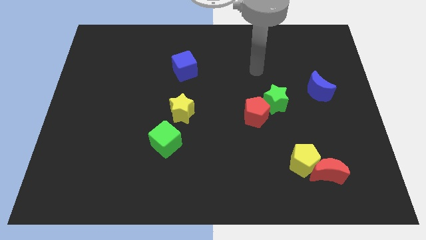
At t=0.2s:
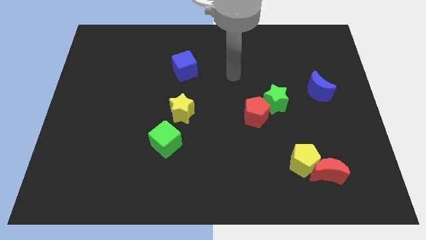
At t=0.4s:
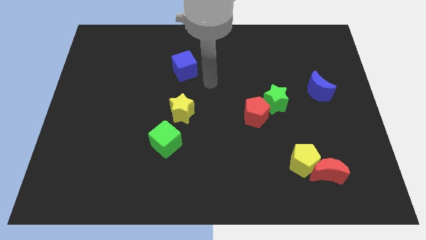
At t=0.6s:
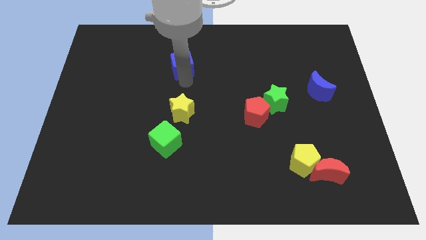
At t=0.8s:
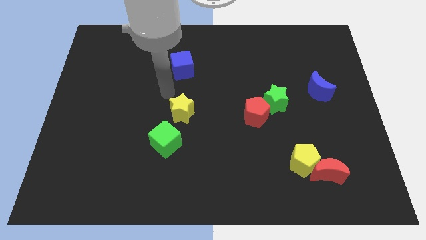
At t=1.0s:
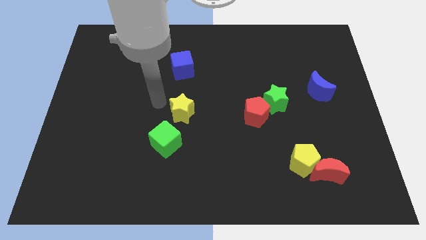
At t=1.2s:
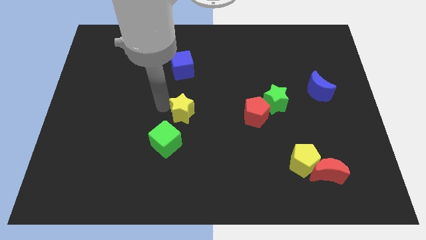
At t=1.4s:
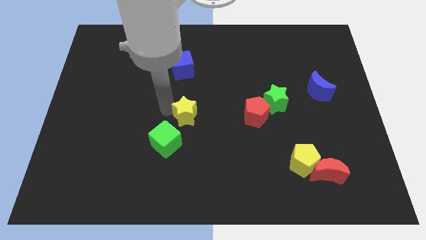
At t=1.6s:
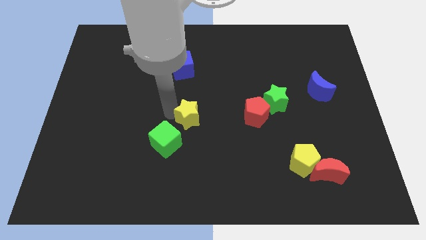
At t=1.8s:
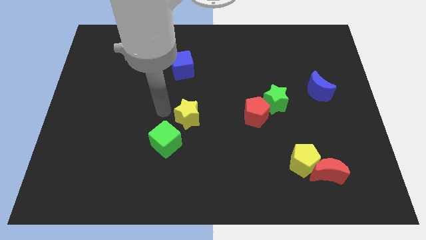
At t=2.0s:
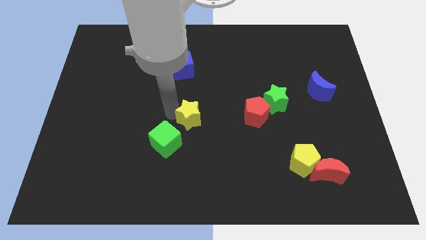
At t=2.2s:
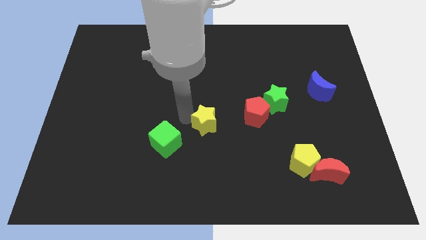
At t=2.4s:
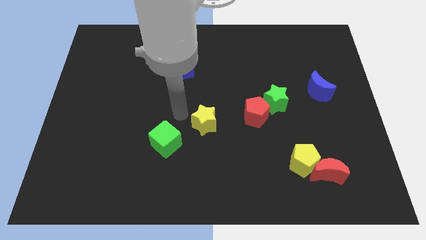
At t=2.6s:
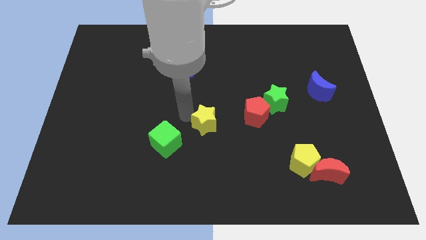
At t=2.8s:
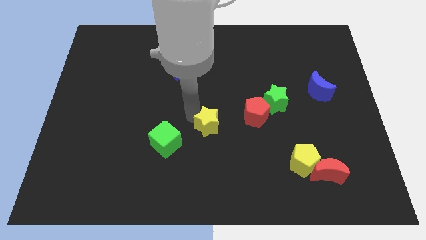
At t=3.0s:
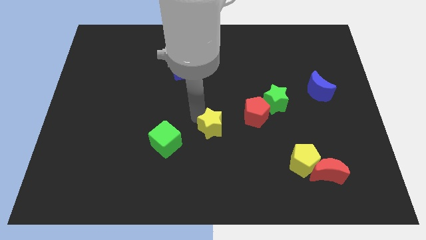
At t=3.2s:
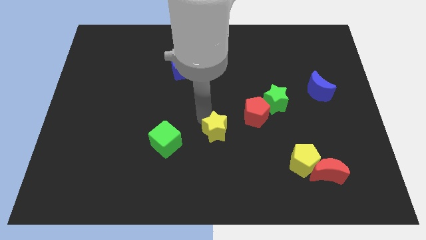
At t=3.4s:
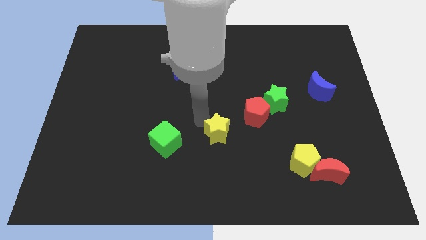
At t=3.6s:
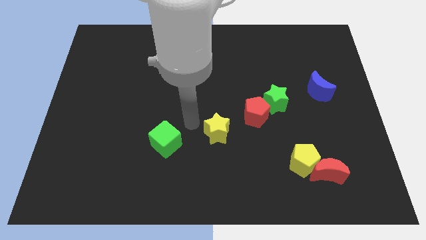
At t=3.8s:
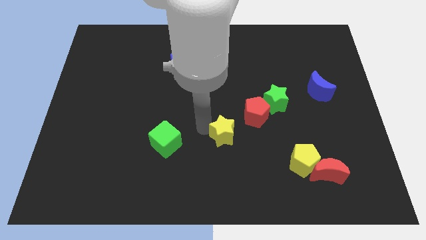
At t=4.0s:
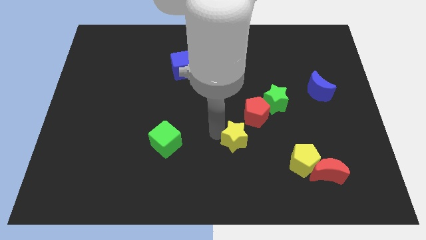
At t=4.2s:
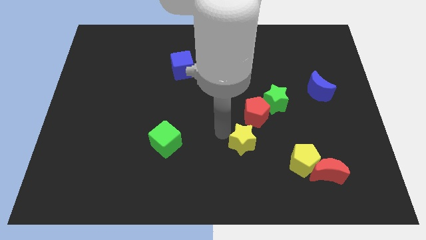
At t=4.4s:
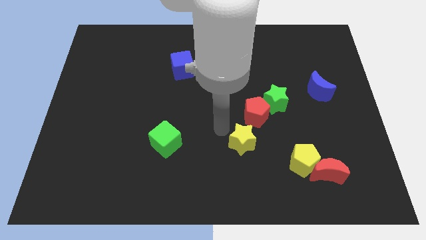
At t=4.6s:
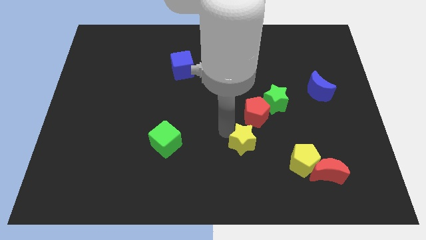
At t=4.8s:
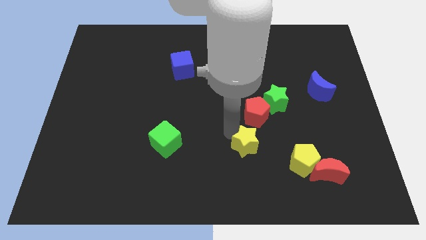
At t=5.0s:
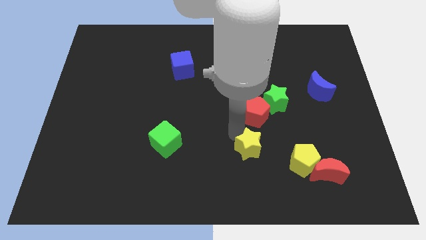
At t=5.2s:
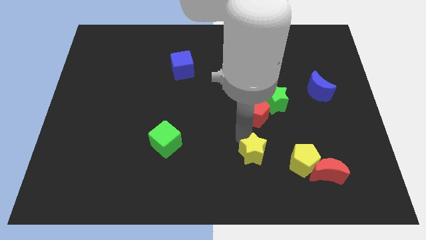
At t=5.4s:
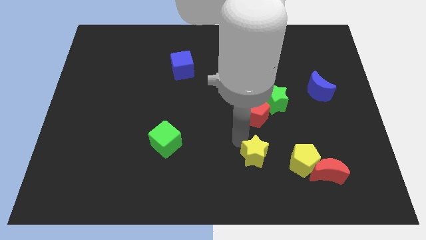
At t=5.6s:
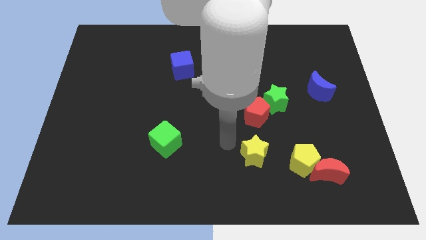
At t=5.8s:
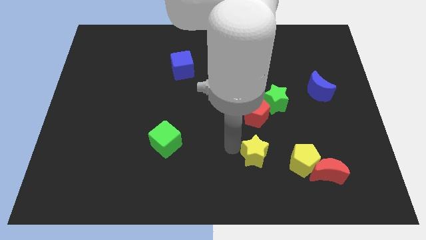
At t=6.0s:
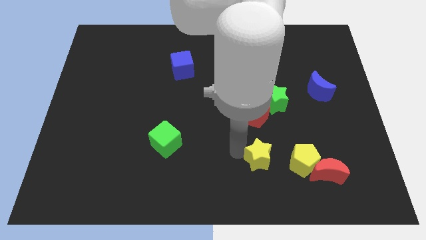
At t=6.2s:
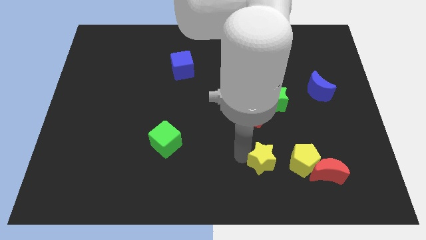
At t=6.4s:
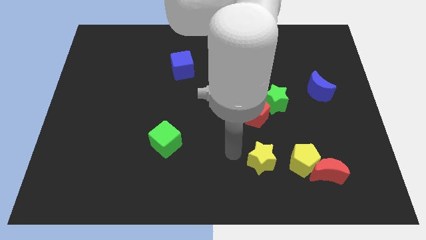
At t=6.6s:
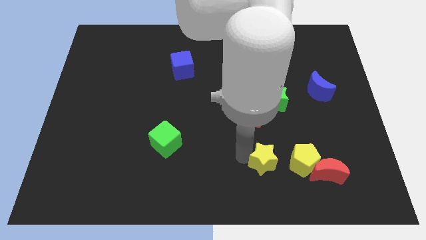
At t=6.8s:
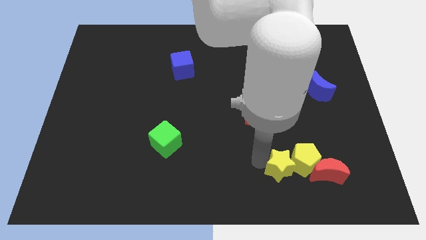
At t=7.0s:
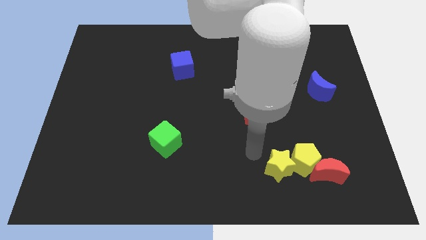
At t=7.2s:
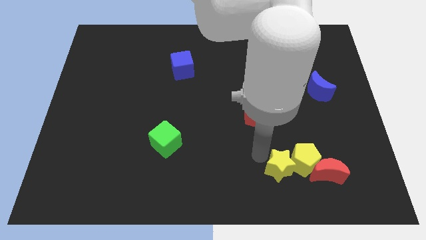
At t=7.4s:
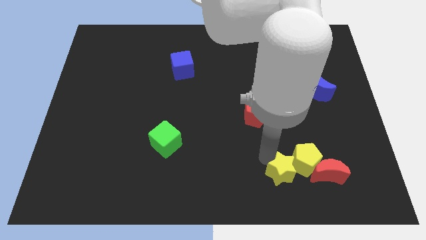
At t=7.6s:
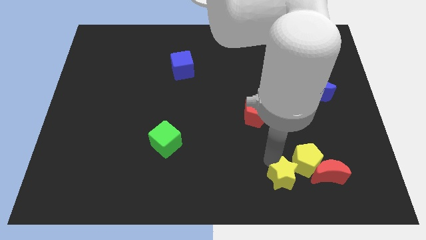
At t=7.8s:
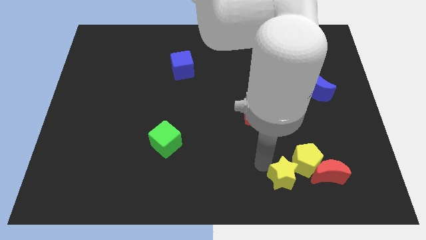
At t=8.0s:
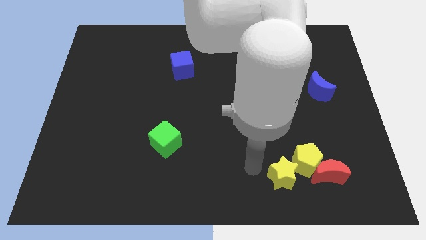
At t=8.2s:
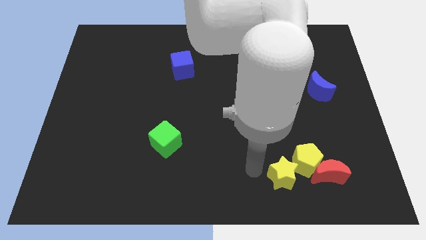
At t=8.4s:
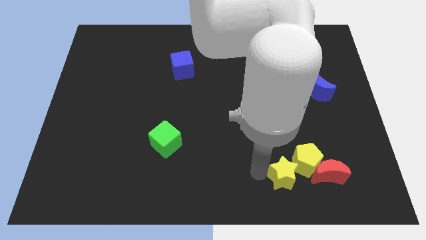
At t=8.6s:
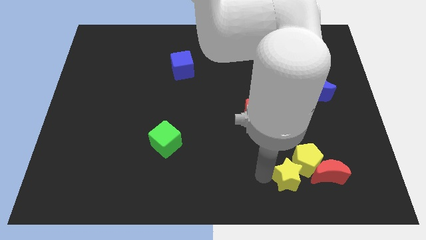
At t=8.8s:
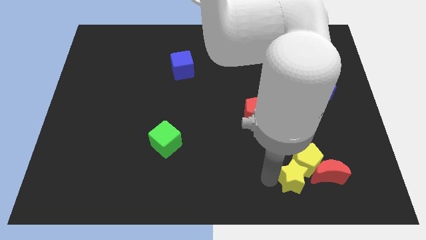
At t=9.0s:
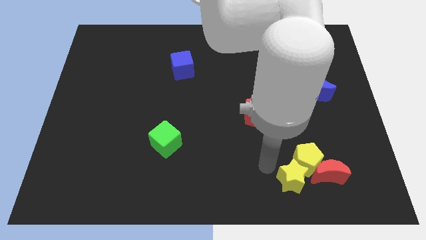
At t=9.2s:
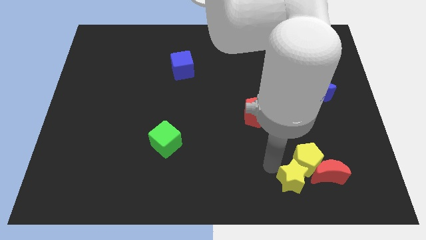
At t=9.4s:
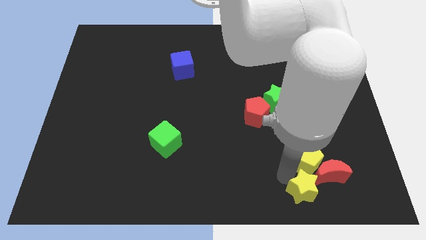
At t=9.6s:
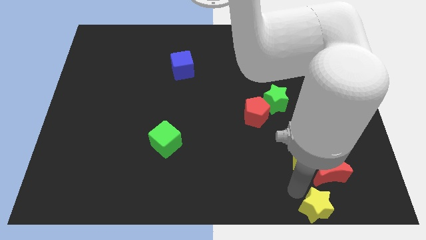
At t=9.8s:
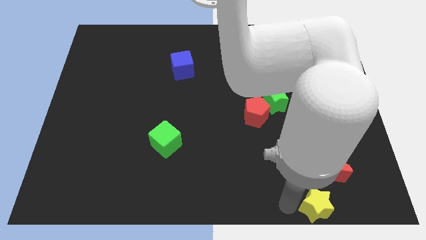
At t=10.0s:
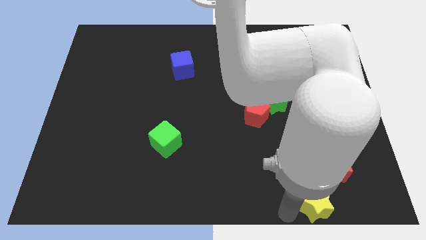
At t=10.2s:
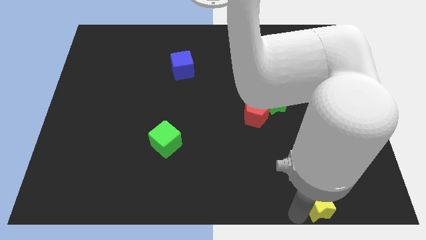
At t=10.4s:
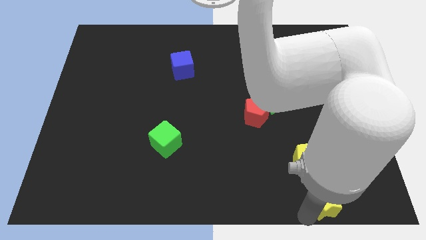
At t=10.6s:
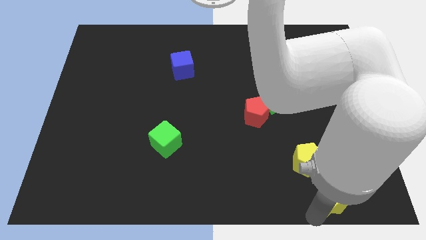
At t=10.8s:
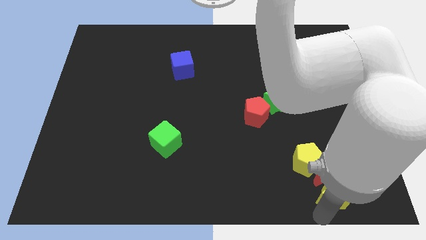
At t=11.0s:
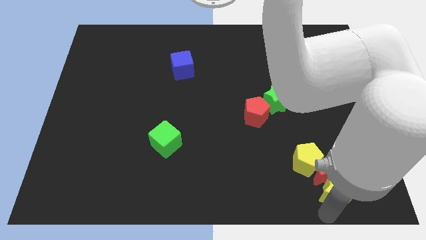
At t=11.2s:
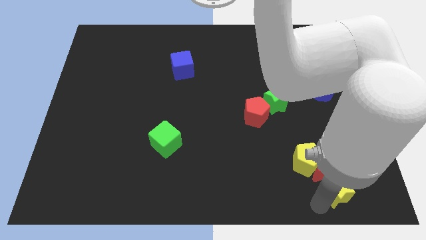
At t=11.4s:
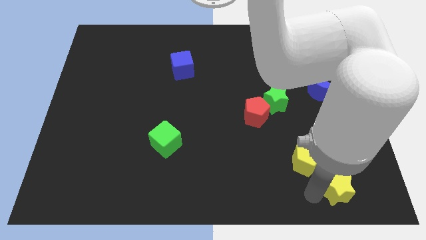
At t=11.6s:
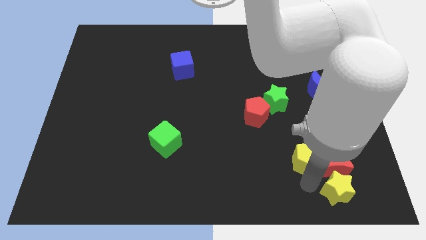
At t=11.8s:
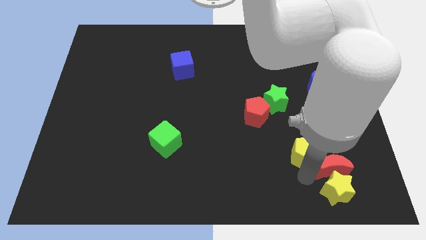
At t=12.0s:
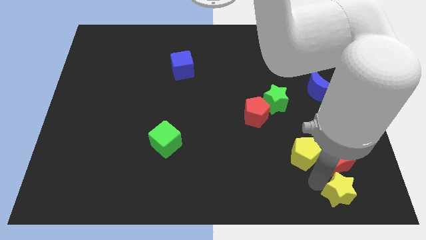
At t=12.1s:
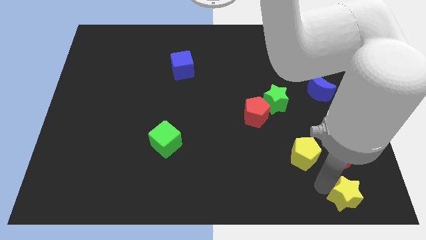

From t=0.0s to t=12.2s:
slide the yellow star to the lower right corner

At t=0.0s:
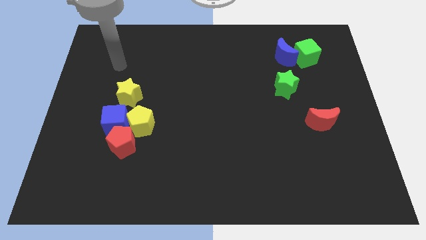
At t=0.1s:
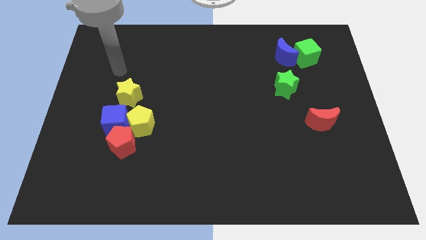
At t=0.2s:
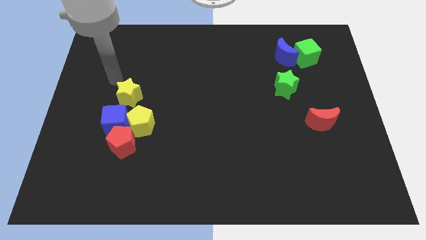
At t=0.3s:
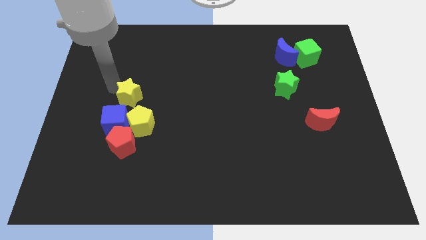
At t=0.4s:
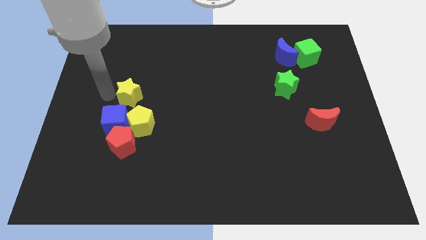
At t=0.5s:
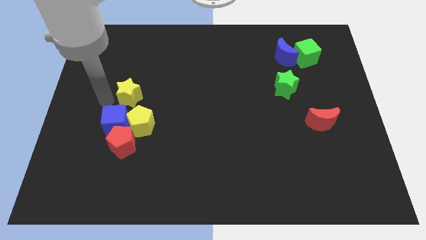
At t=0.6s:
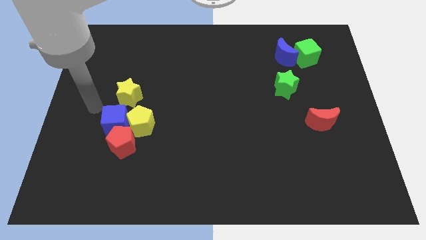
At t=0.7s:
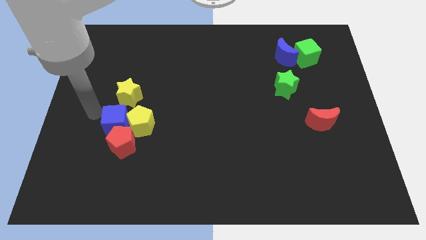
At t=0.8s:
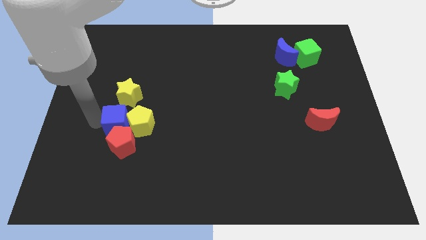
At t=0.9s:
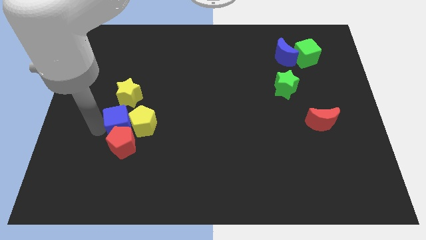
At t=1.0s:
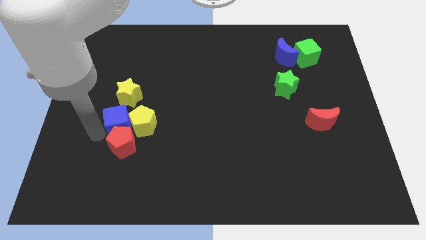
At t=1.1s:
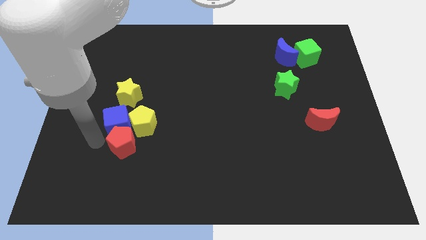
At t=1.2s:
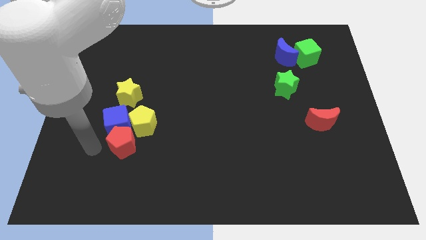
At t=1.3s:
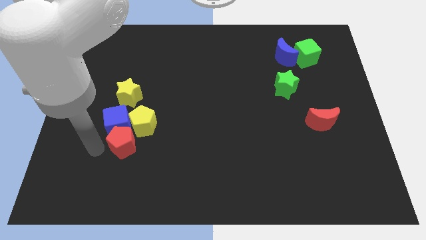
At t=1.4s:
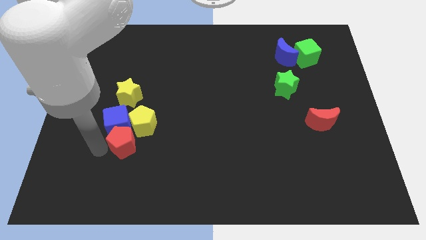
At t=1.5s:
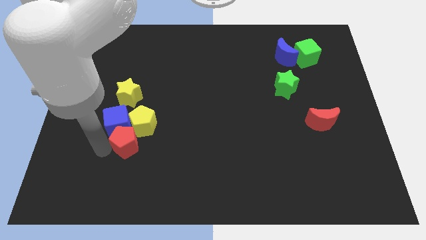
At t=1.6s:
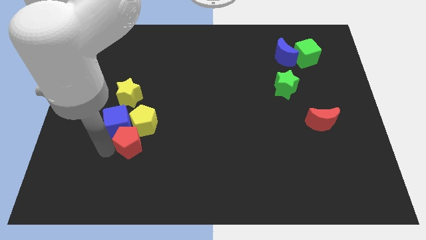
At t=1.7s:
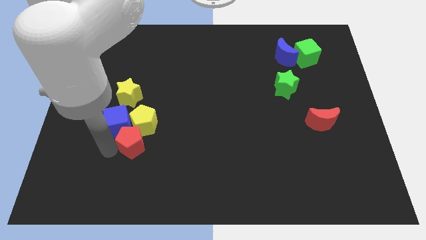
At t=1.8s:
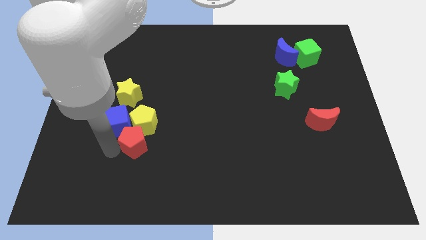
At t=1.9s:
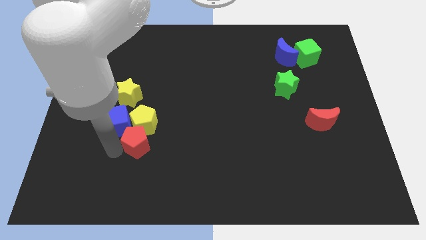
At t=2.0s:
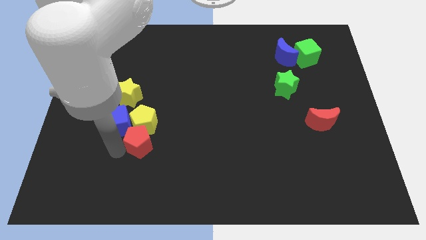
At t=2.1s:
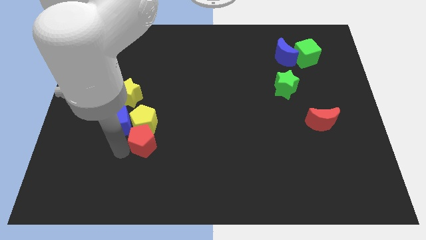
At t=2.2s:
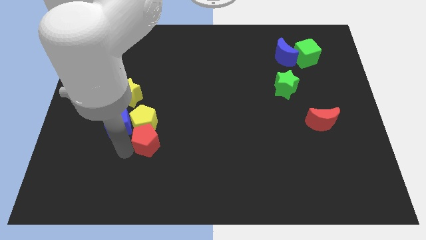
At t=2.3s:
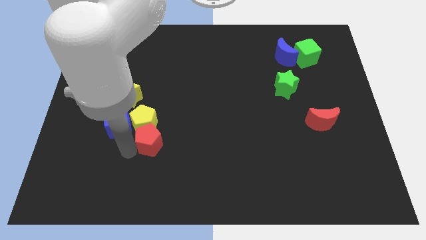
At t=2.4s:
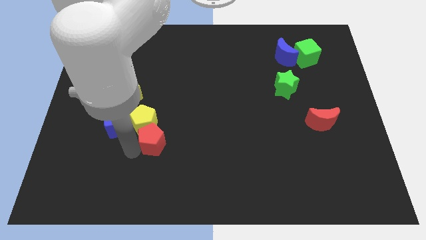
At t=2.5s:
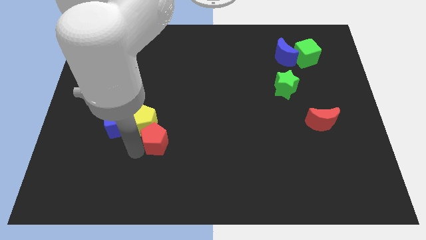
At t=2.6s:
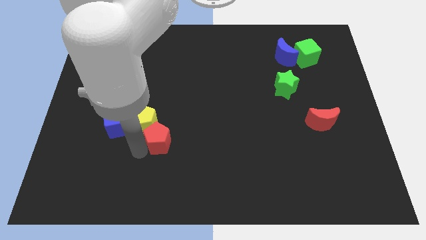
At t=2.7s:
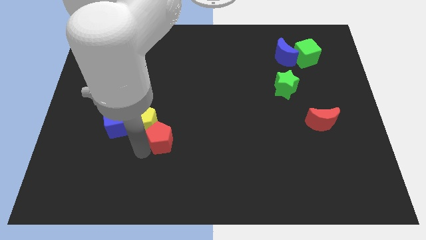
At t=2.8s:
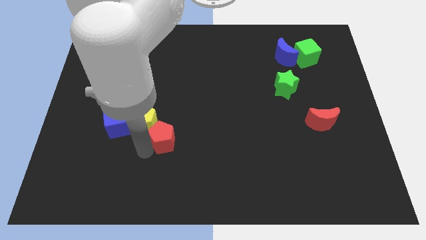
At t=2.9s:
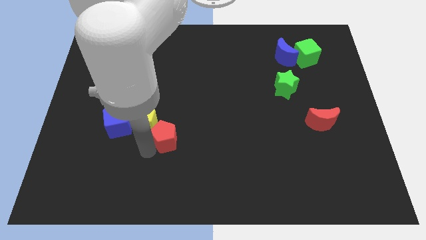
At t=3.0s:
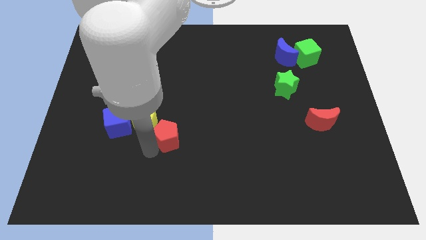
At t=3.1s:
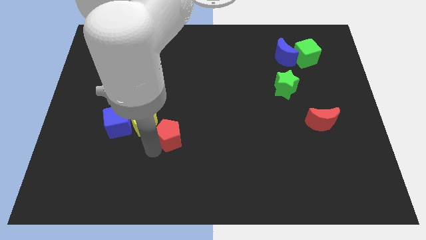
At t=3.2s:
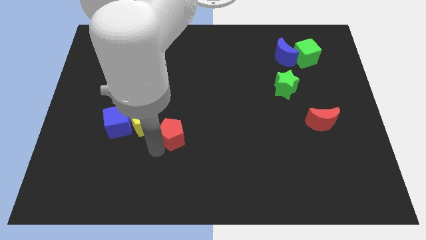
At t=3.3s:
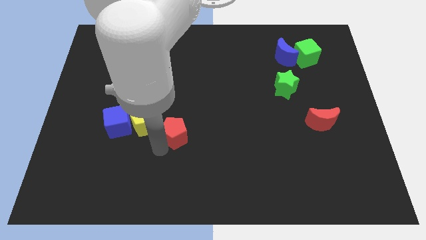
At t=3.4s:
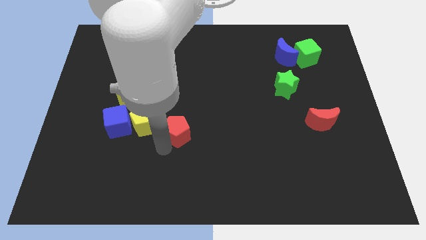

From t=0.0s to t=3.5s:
move the red pentagon to the middle of the board
